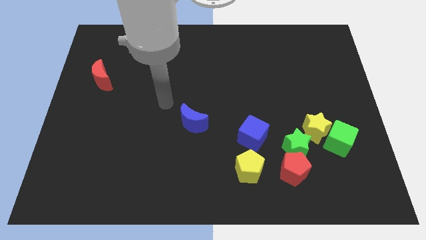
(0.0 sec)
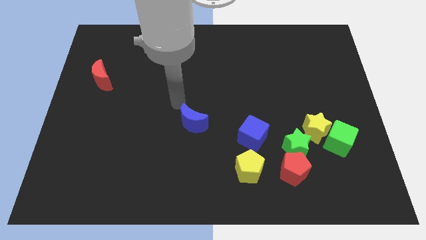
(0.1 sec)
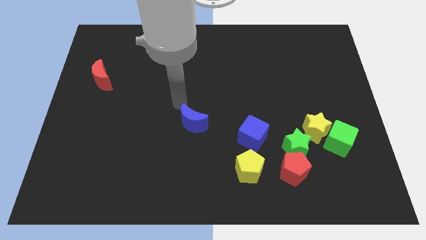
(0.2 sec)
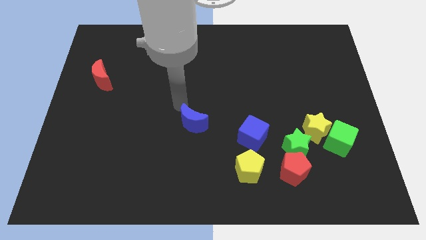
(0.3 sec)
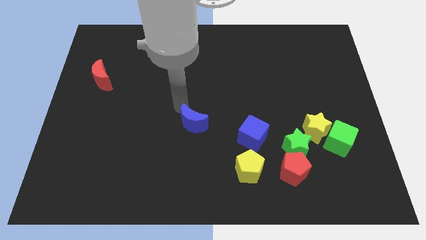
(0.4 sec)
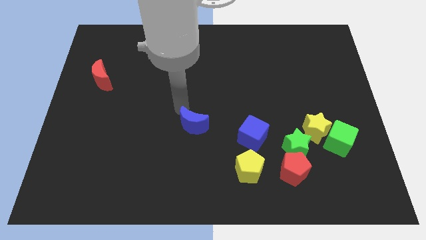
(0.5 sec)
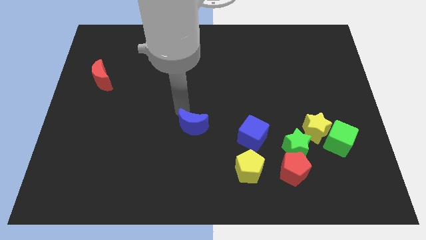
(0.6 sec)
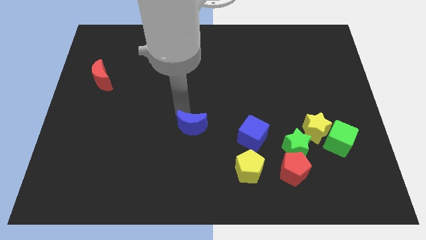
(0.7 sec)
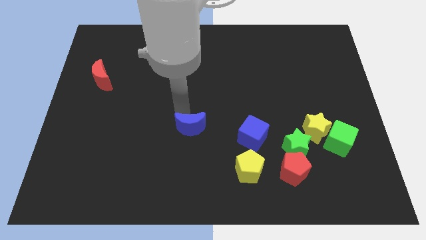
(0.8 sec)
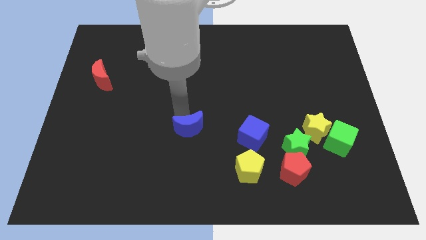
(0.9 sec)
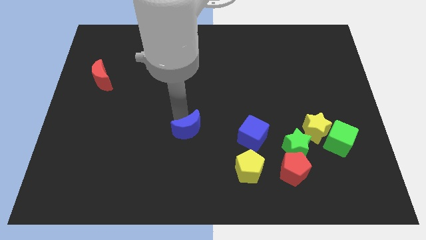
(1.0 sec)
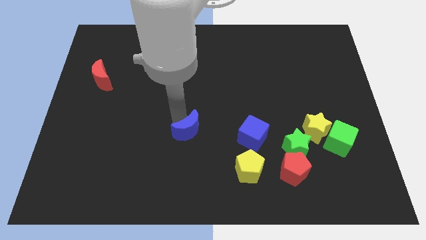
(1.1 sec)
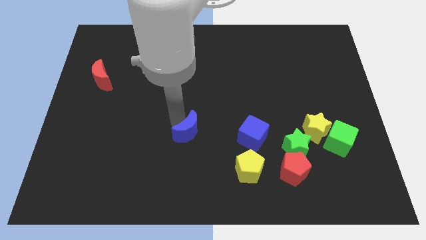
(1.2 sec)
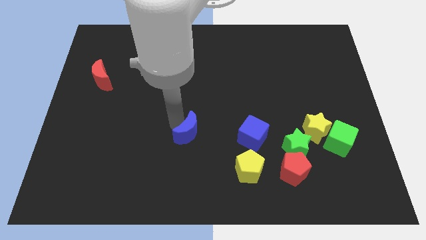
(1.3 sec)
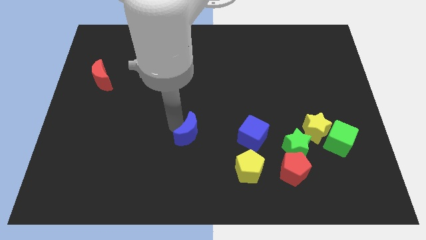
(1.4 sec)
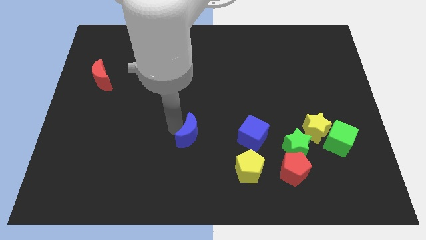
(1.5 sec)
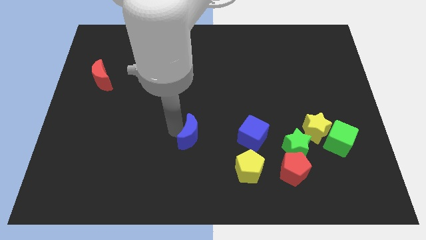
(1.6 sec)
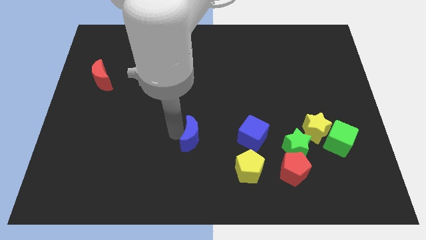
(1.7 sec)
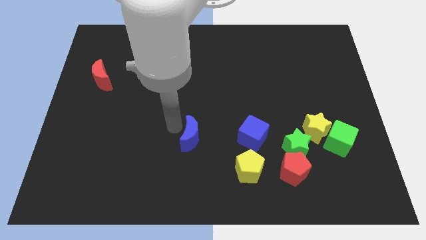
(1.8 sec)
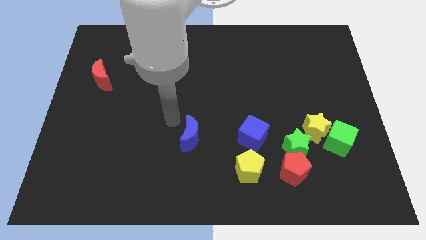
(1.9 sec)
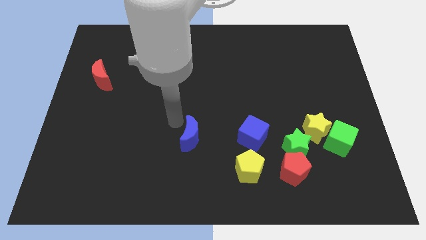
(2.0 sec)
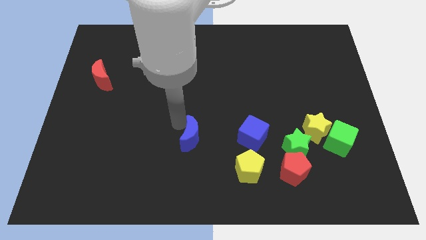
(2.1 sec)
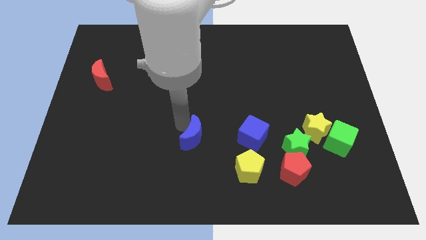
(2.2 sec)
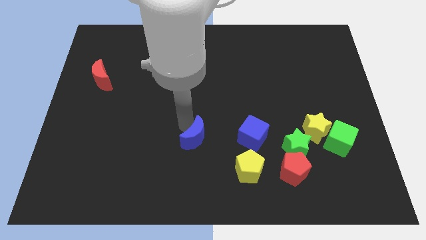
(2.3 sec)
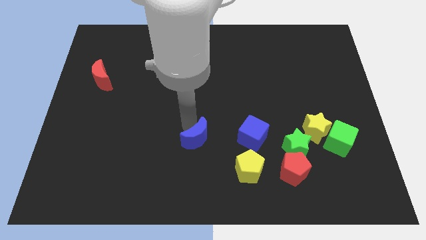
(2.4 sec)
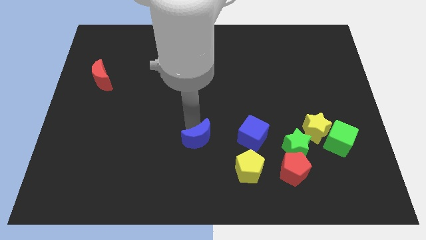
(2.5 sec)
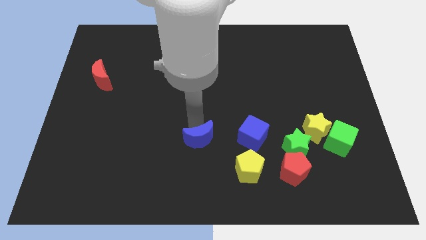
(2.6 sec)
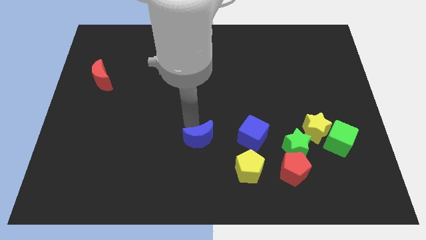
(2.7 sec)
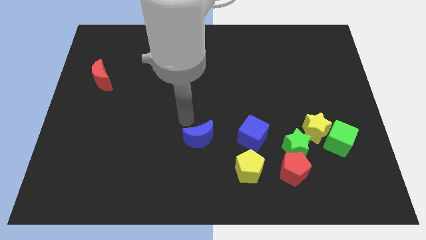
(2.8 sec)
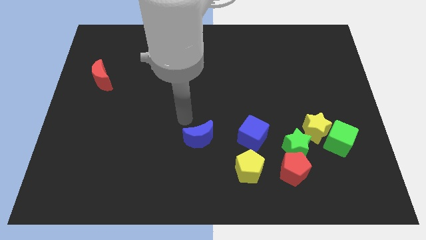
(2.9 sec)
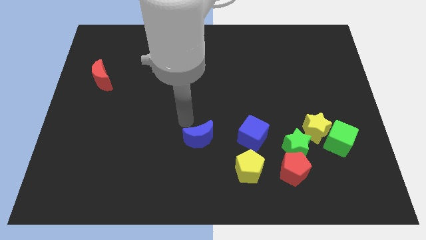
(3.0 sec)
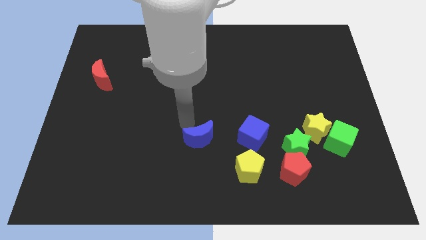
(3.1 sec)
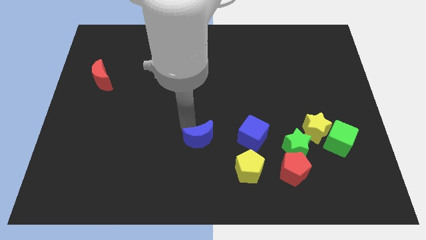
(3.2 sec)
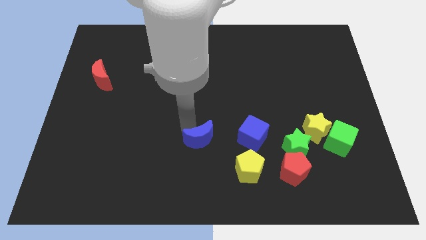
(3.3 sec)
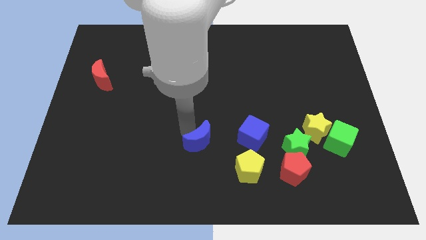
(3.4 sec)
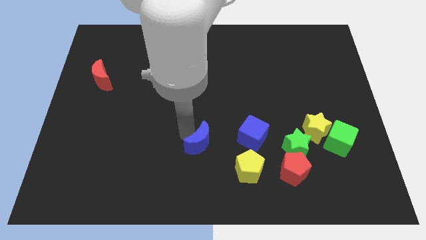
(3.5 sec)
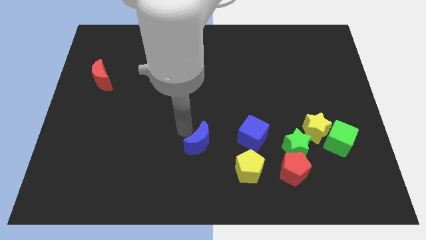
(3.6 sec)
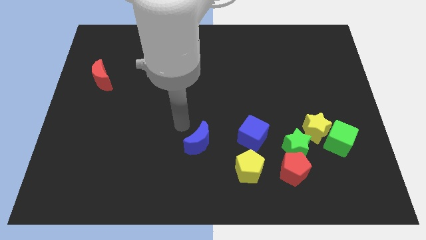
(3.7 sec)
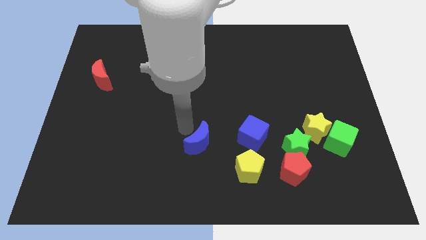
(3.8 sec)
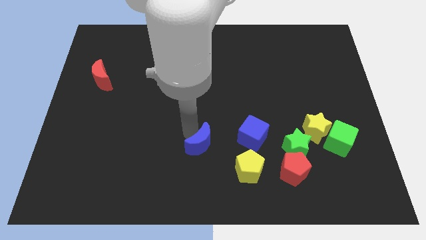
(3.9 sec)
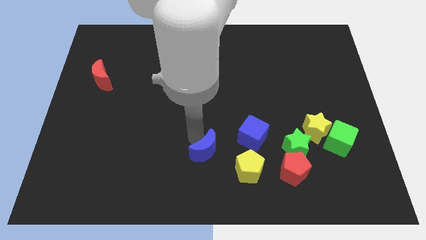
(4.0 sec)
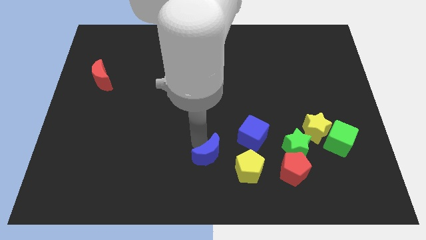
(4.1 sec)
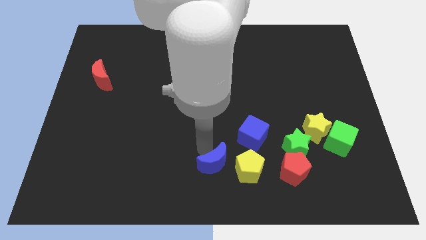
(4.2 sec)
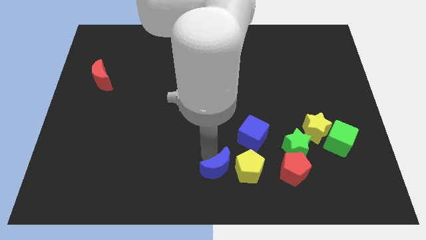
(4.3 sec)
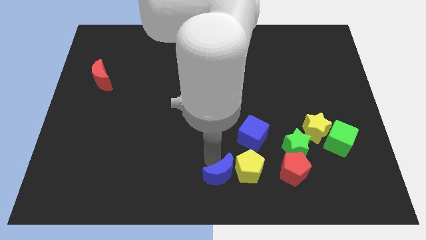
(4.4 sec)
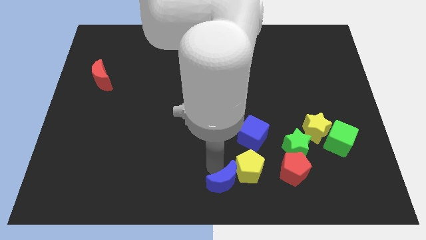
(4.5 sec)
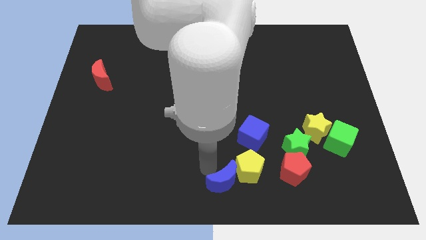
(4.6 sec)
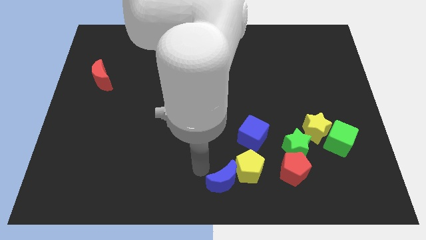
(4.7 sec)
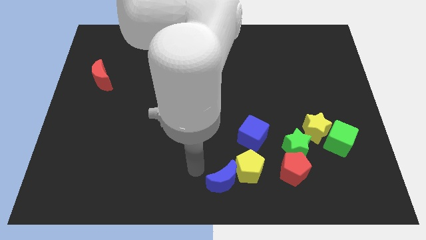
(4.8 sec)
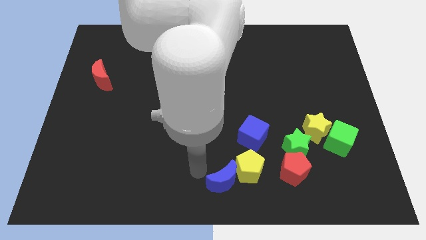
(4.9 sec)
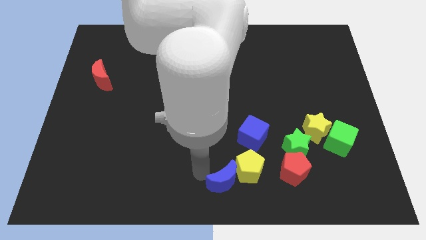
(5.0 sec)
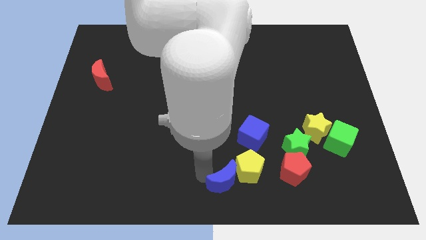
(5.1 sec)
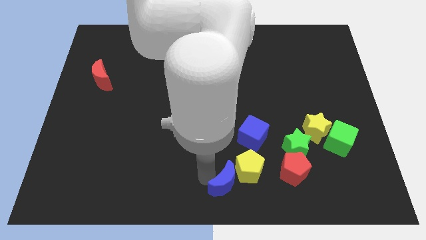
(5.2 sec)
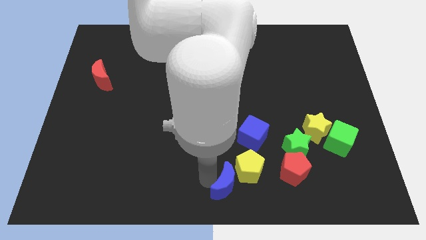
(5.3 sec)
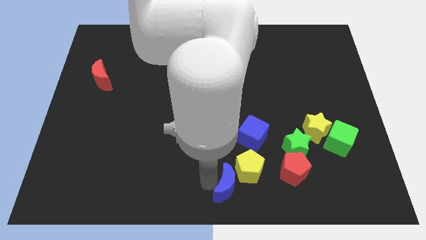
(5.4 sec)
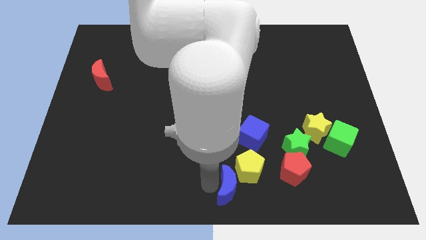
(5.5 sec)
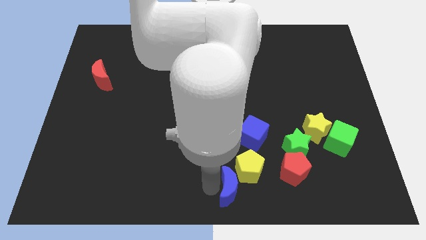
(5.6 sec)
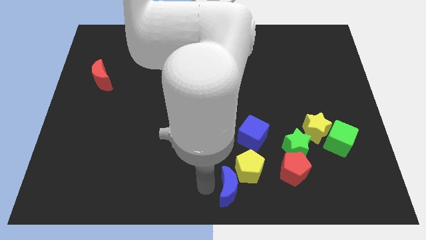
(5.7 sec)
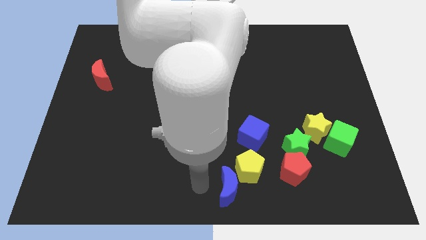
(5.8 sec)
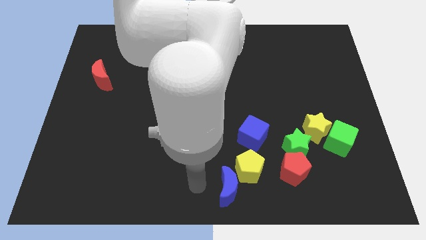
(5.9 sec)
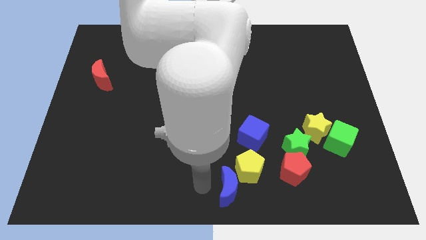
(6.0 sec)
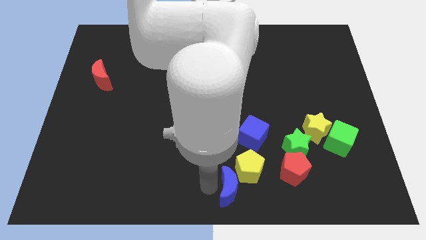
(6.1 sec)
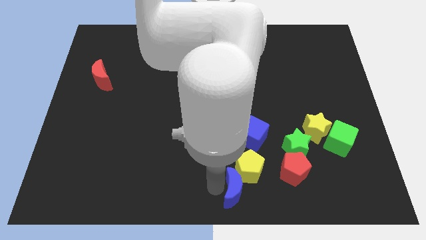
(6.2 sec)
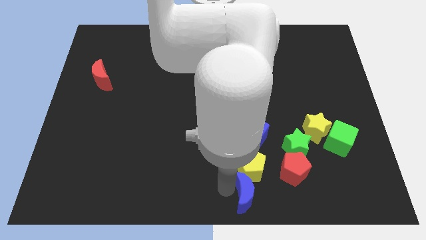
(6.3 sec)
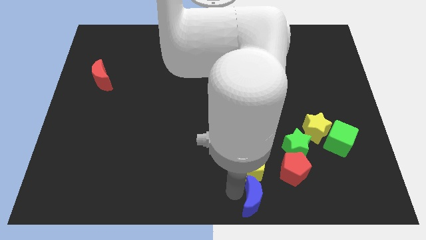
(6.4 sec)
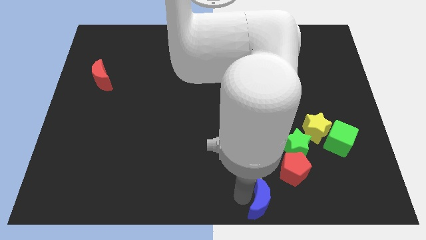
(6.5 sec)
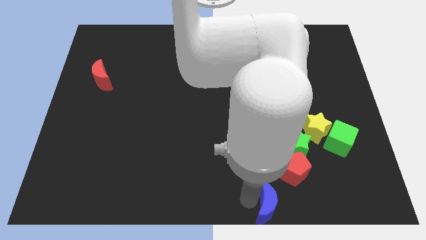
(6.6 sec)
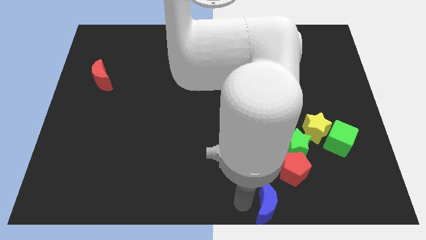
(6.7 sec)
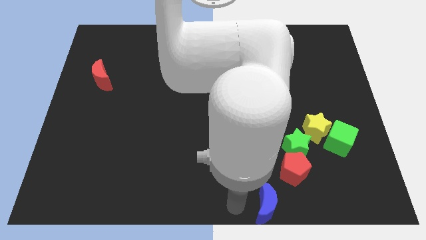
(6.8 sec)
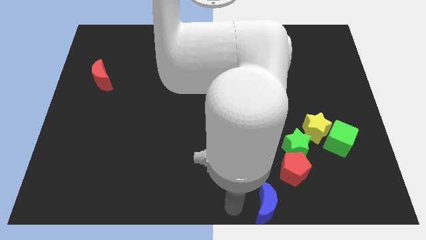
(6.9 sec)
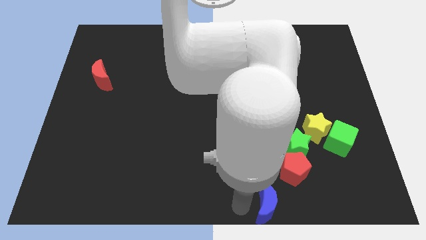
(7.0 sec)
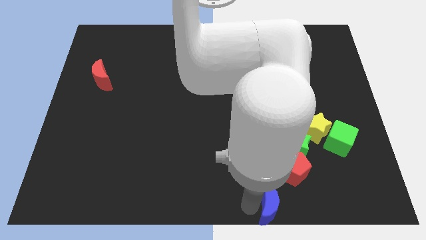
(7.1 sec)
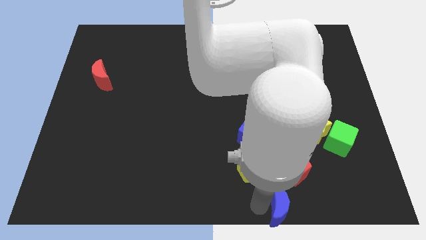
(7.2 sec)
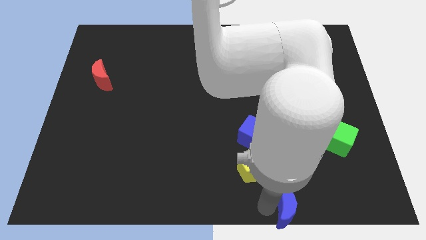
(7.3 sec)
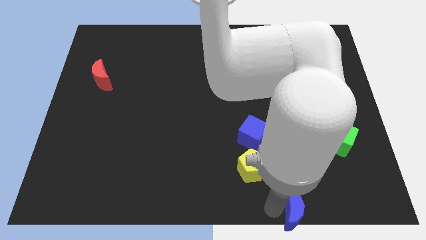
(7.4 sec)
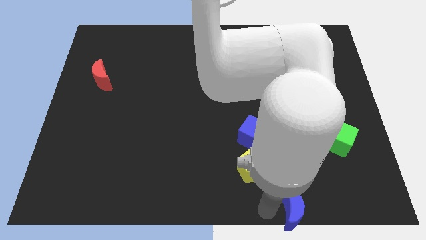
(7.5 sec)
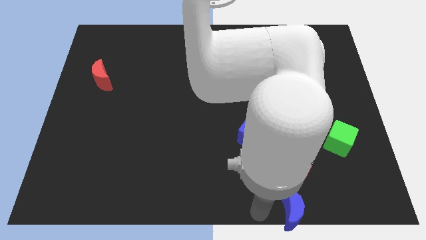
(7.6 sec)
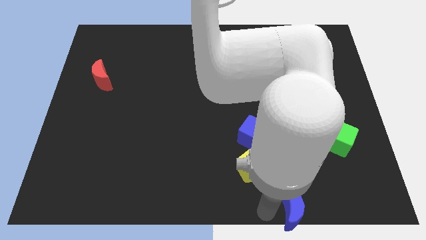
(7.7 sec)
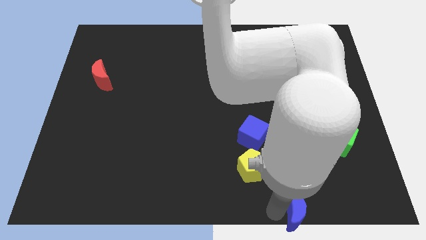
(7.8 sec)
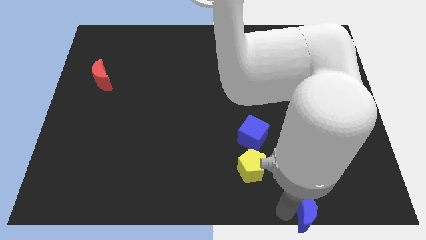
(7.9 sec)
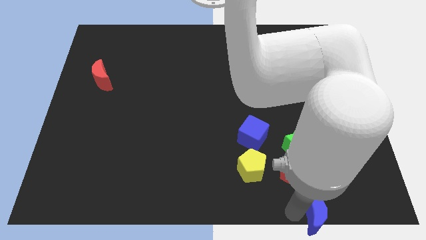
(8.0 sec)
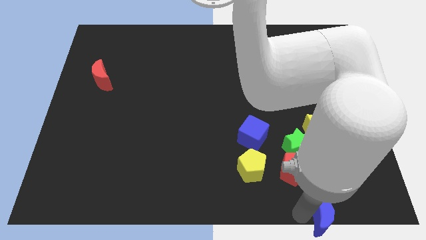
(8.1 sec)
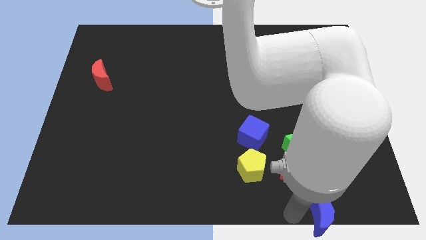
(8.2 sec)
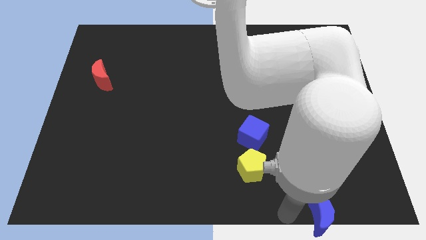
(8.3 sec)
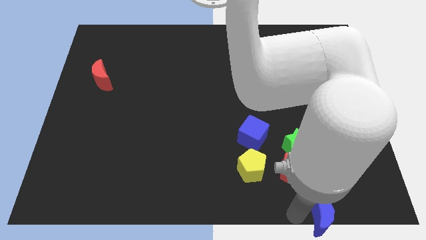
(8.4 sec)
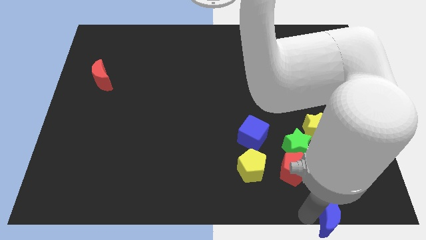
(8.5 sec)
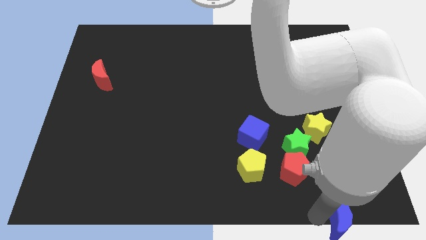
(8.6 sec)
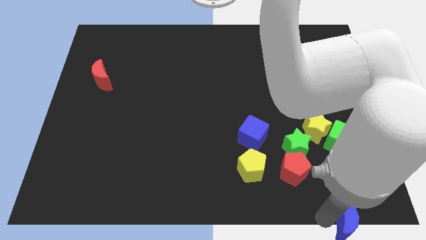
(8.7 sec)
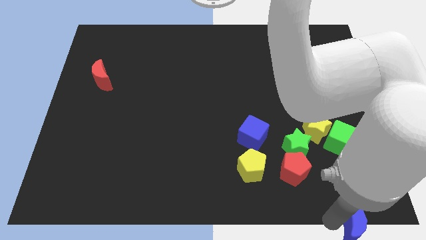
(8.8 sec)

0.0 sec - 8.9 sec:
slide the blue moon to the lower right corner
